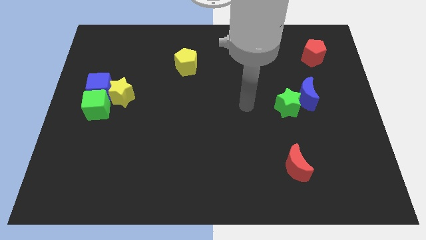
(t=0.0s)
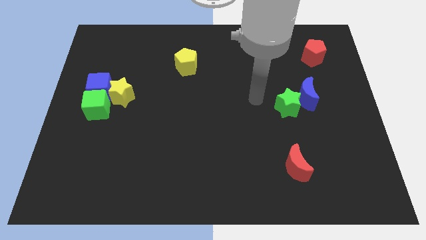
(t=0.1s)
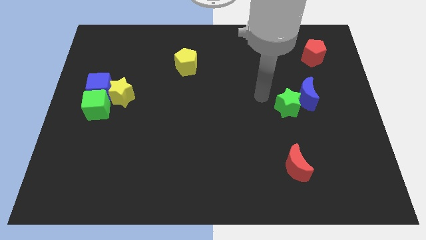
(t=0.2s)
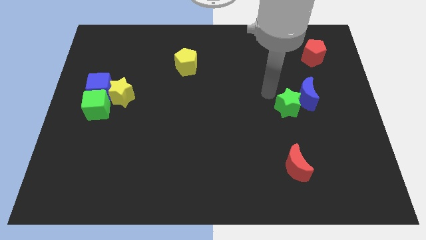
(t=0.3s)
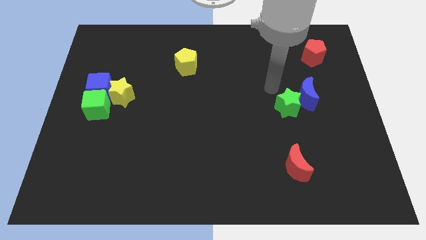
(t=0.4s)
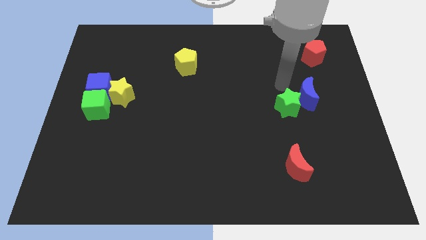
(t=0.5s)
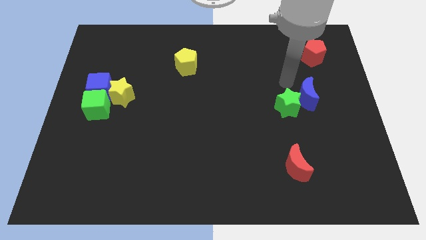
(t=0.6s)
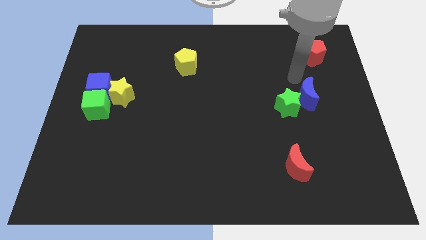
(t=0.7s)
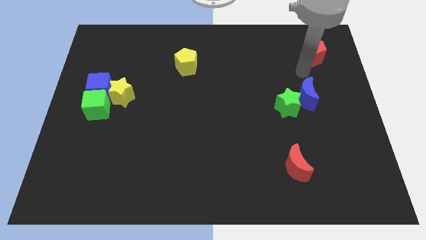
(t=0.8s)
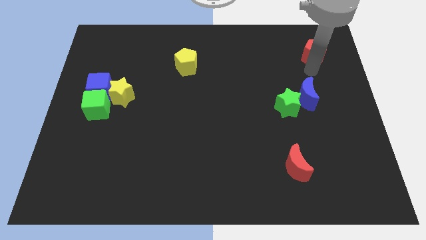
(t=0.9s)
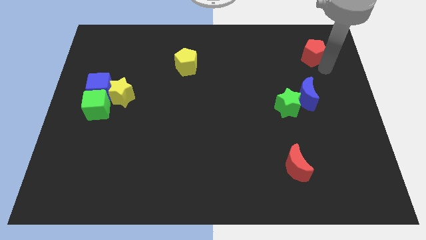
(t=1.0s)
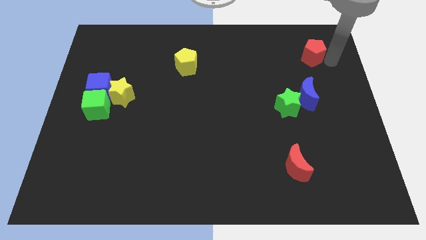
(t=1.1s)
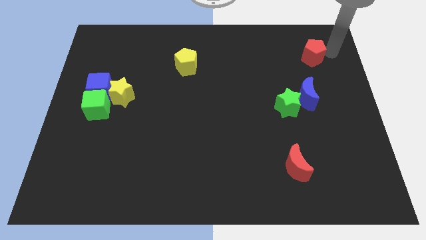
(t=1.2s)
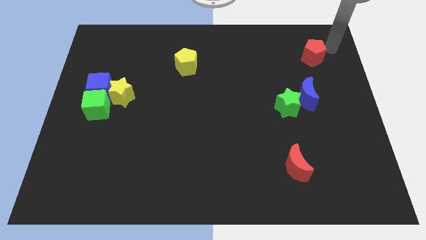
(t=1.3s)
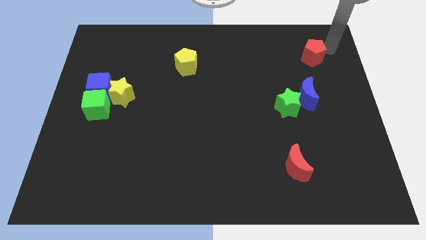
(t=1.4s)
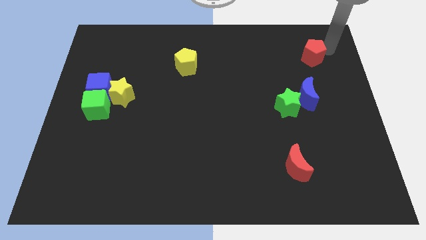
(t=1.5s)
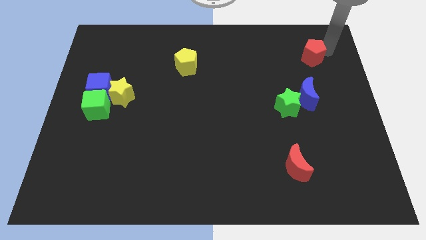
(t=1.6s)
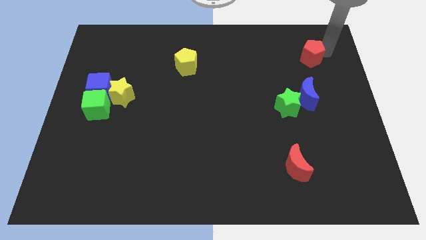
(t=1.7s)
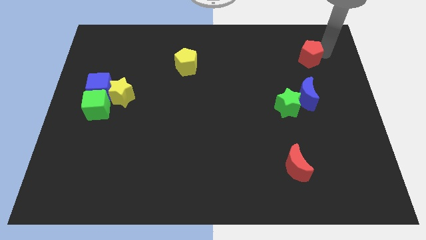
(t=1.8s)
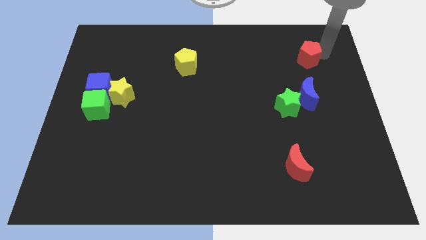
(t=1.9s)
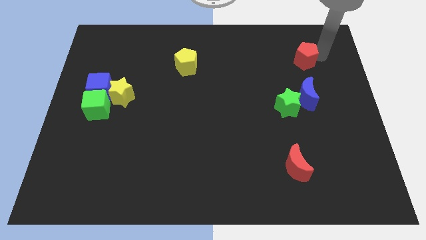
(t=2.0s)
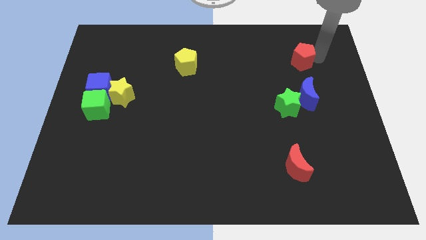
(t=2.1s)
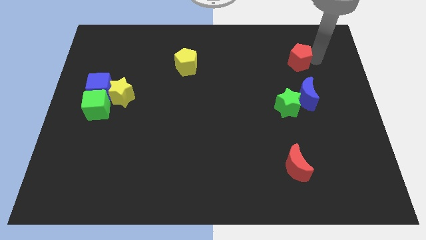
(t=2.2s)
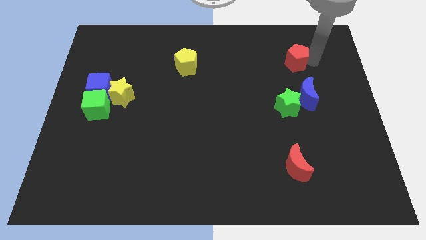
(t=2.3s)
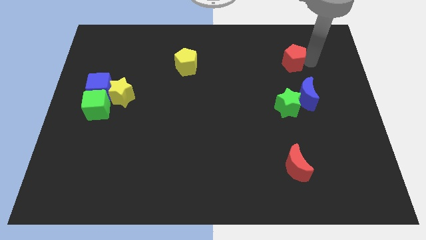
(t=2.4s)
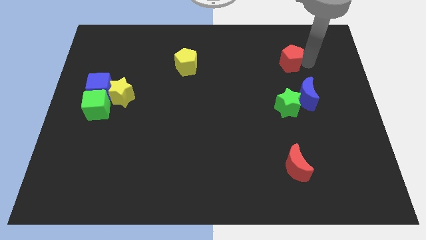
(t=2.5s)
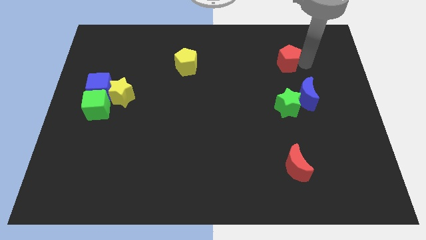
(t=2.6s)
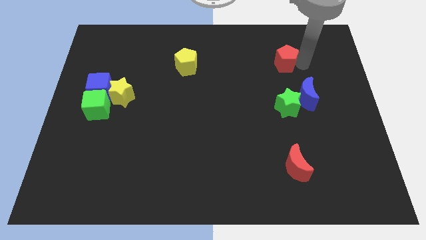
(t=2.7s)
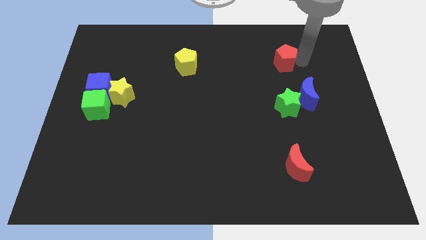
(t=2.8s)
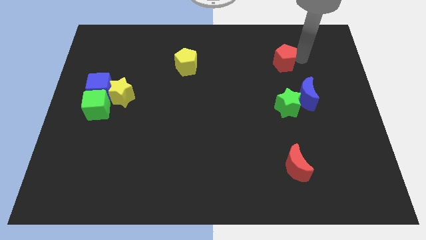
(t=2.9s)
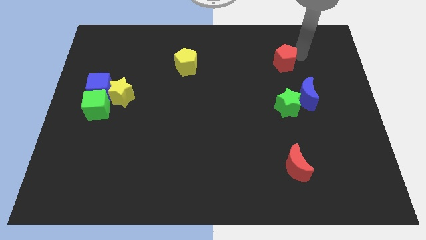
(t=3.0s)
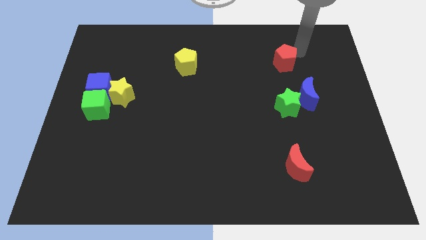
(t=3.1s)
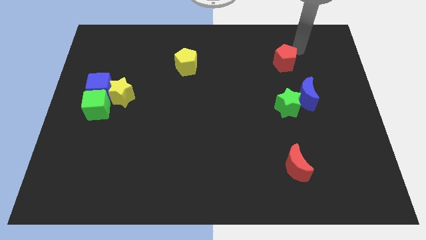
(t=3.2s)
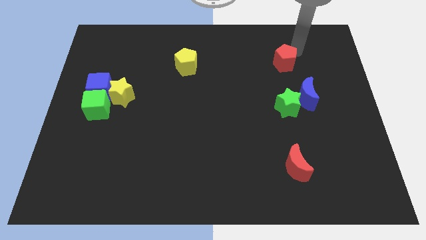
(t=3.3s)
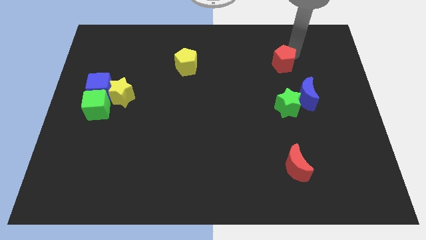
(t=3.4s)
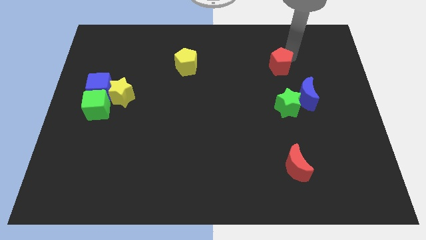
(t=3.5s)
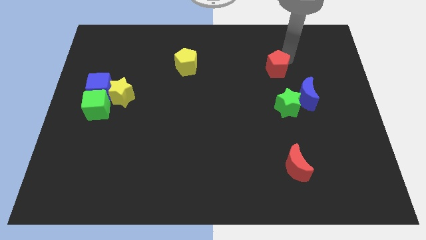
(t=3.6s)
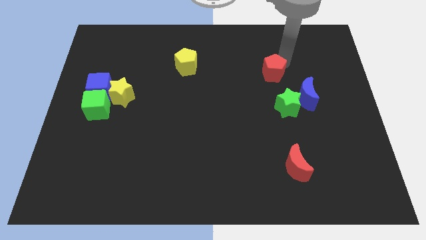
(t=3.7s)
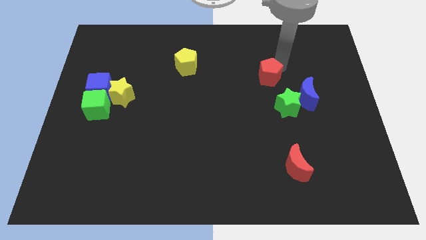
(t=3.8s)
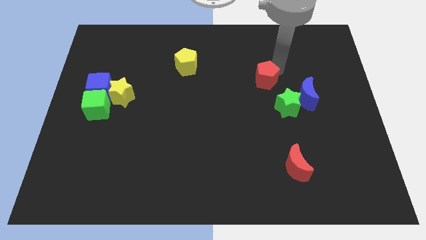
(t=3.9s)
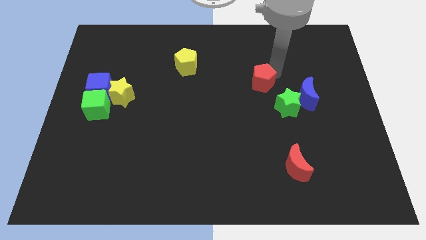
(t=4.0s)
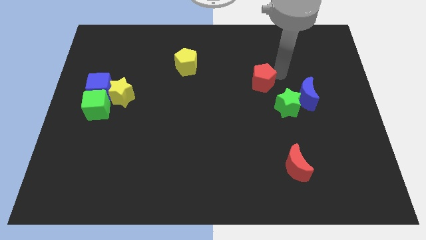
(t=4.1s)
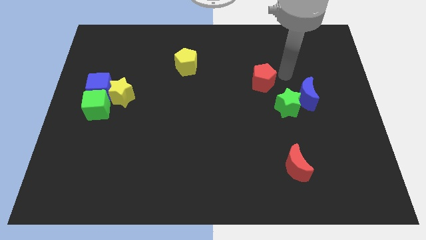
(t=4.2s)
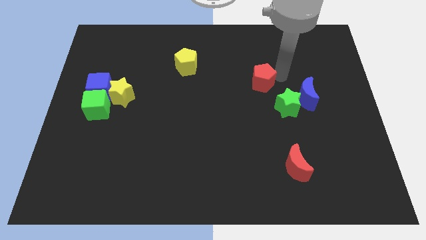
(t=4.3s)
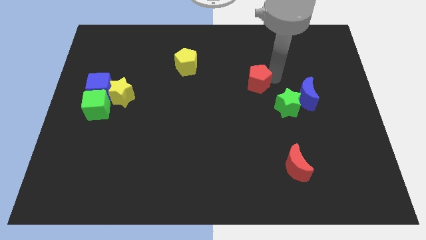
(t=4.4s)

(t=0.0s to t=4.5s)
slide the red pentagon to the center

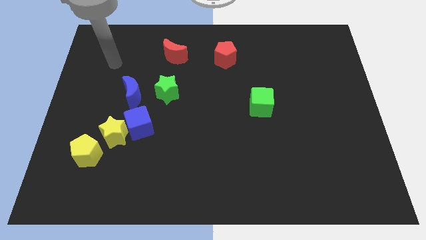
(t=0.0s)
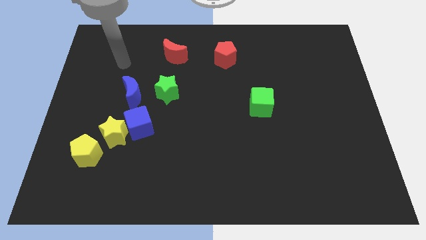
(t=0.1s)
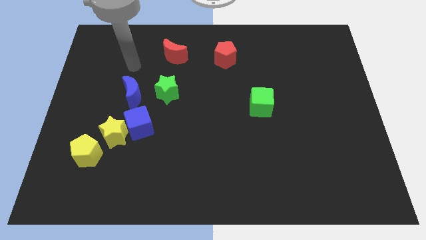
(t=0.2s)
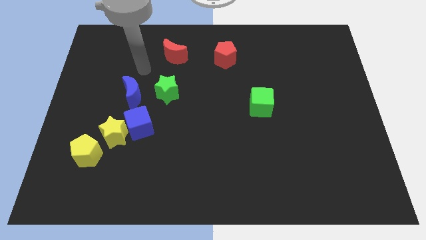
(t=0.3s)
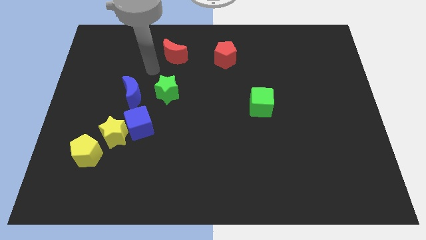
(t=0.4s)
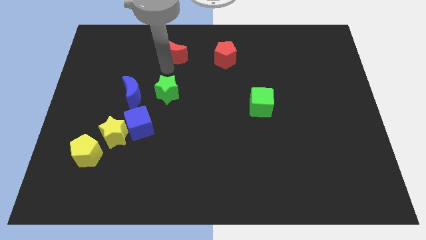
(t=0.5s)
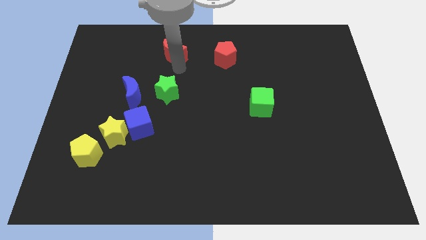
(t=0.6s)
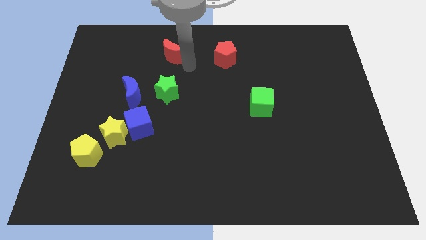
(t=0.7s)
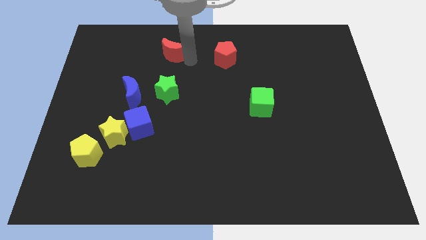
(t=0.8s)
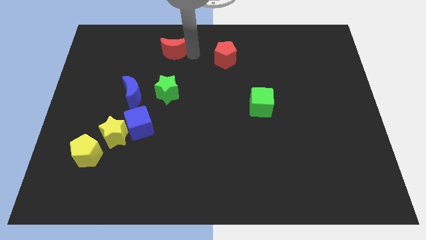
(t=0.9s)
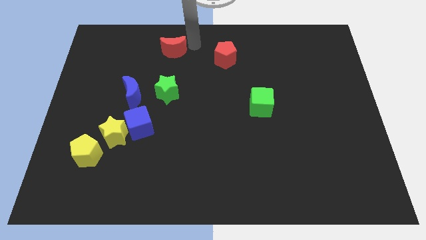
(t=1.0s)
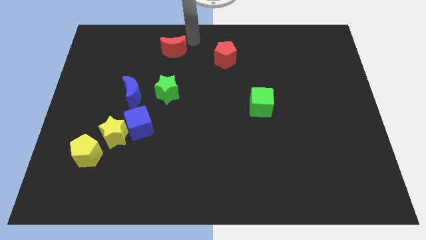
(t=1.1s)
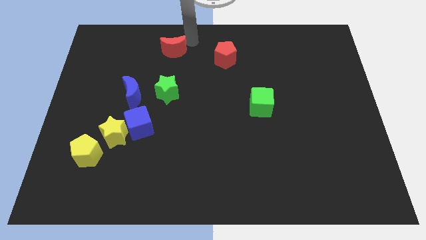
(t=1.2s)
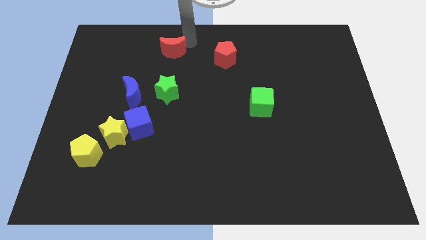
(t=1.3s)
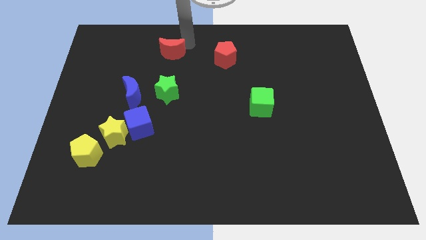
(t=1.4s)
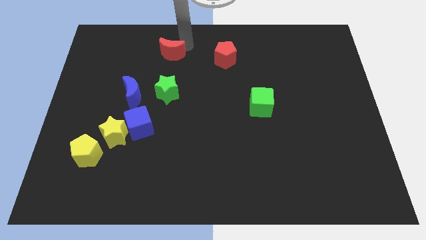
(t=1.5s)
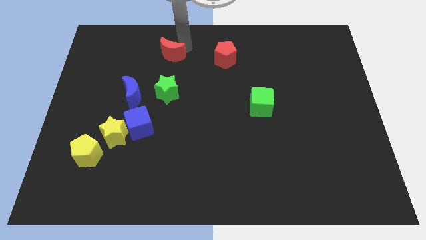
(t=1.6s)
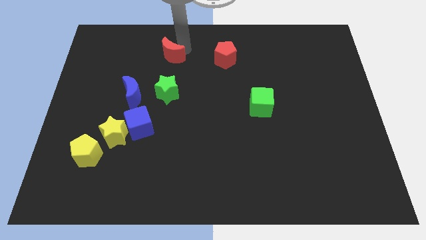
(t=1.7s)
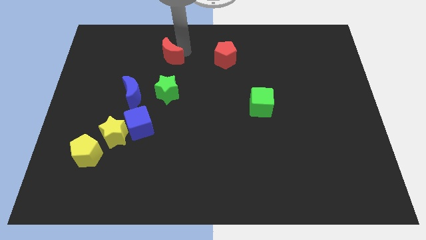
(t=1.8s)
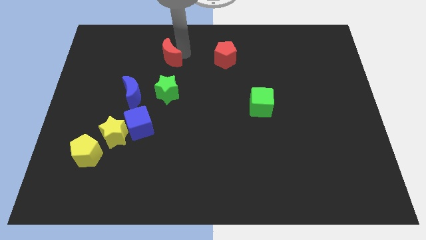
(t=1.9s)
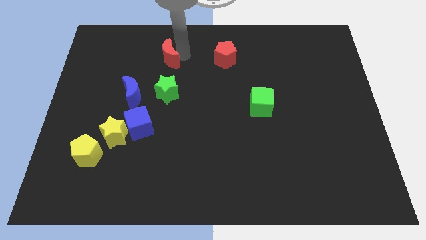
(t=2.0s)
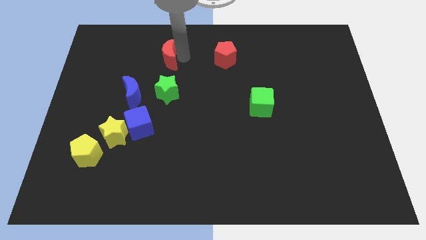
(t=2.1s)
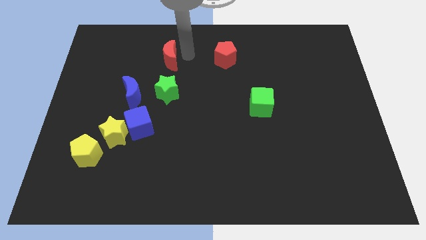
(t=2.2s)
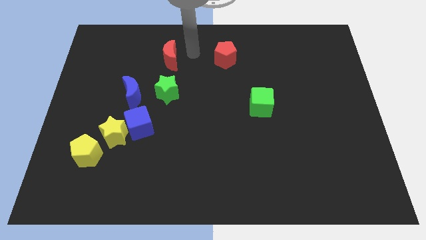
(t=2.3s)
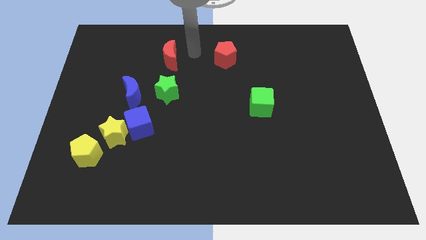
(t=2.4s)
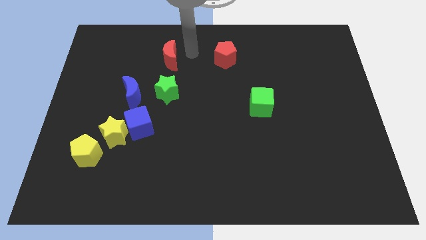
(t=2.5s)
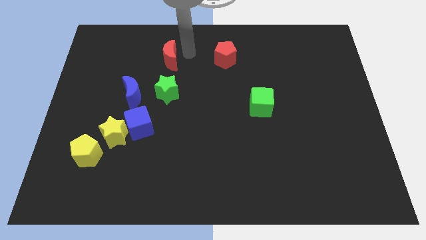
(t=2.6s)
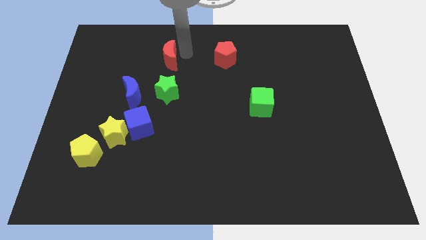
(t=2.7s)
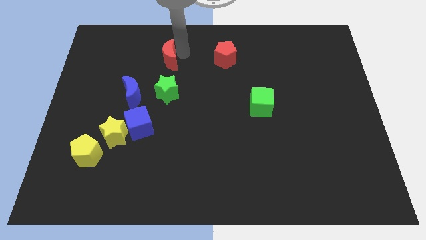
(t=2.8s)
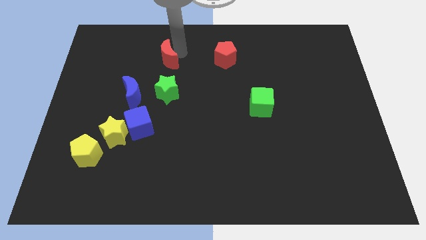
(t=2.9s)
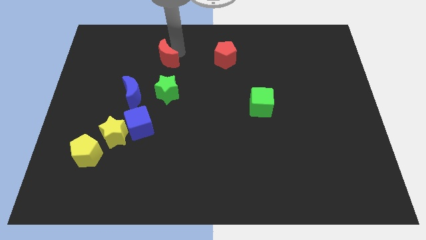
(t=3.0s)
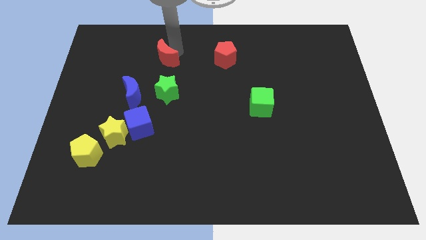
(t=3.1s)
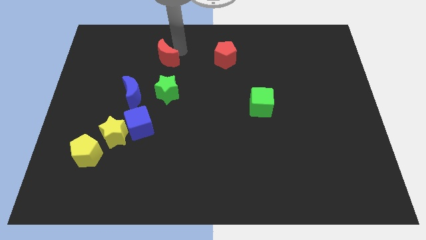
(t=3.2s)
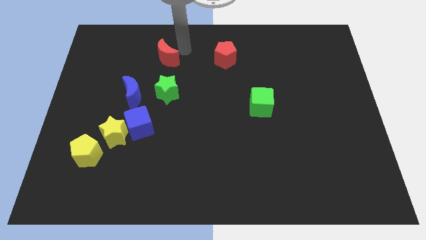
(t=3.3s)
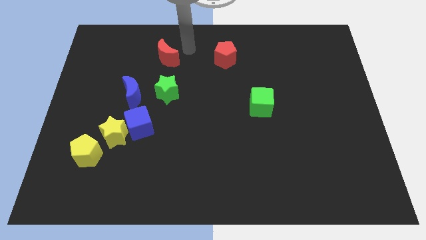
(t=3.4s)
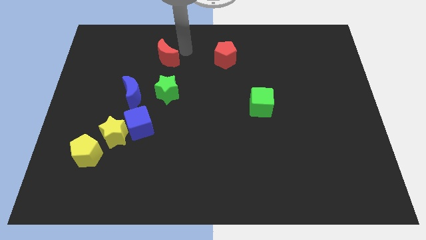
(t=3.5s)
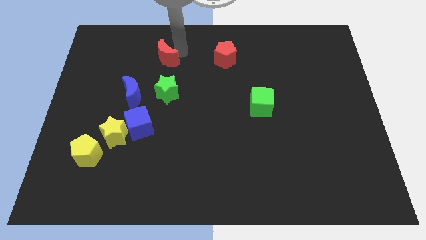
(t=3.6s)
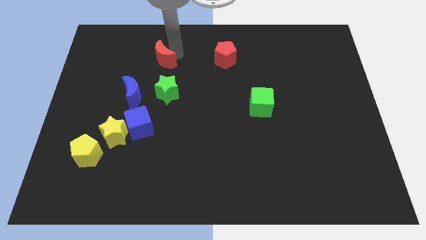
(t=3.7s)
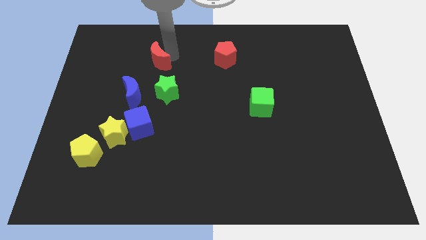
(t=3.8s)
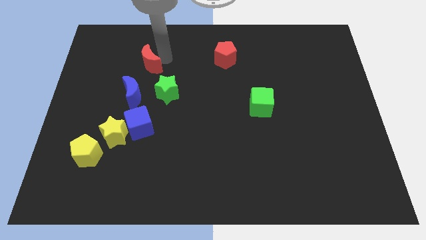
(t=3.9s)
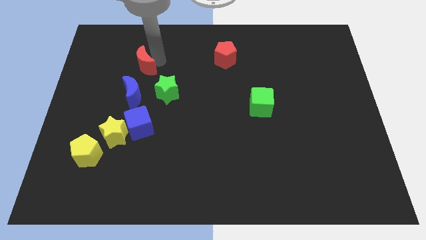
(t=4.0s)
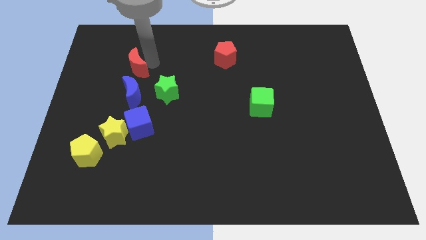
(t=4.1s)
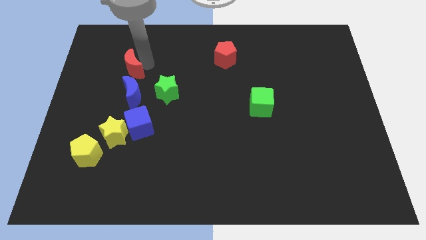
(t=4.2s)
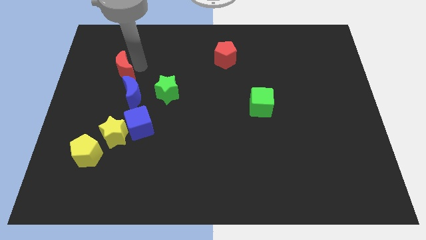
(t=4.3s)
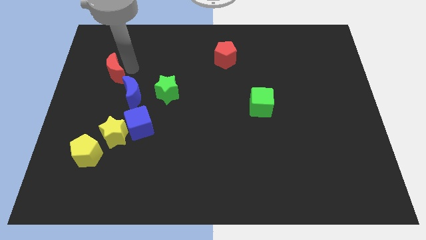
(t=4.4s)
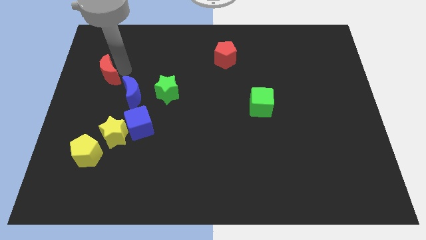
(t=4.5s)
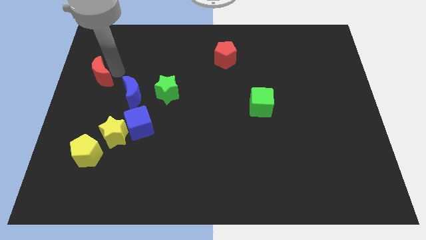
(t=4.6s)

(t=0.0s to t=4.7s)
slide the red moon to the left side
